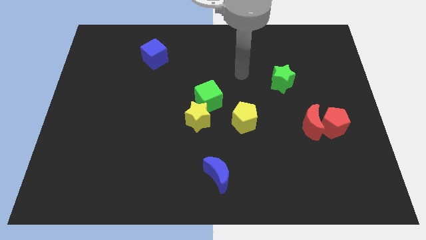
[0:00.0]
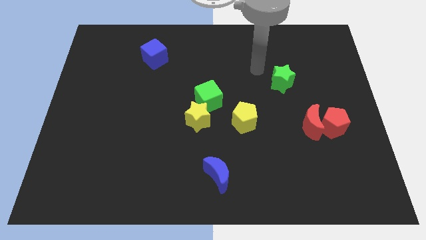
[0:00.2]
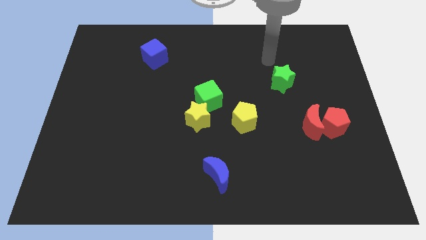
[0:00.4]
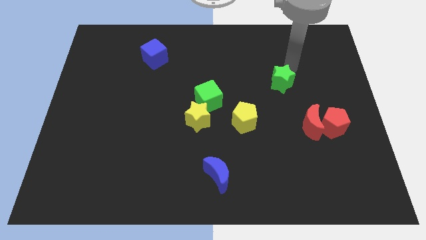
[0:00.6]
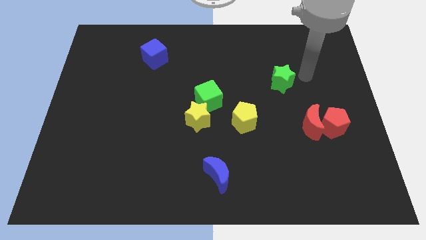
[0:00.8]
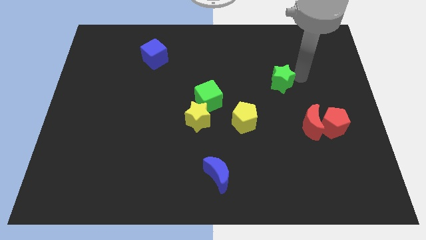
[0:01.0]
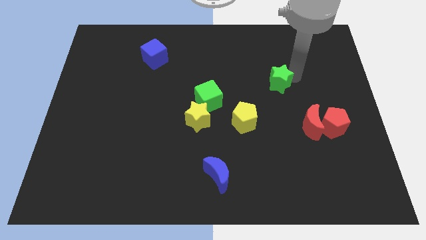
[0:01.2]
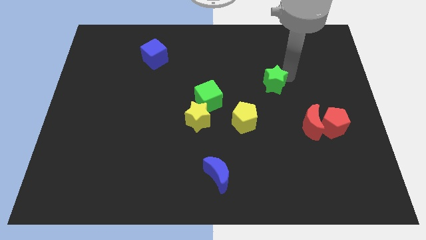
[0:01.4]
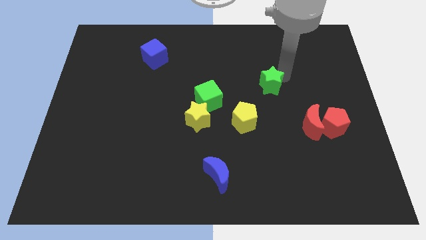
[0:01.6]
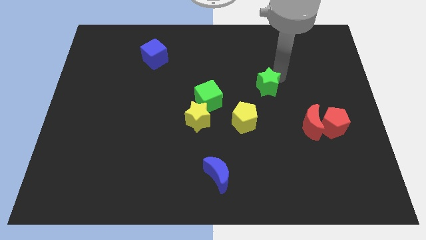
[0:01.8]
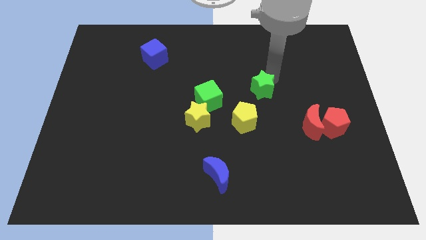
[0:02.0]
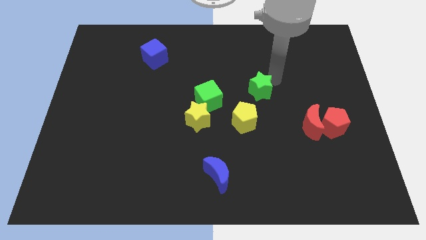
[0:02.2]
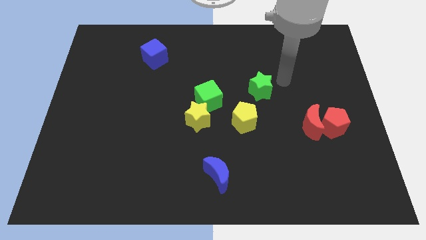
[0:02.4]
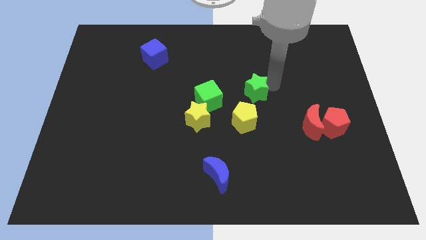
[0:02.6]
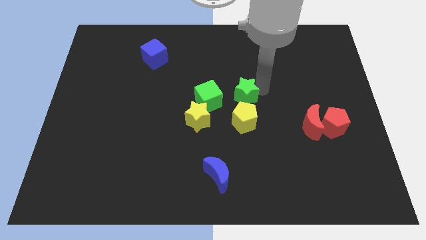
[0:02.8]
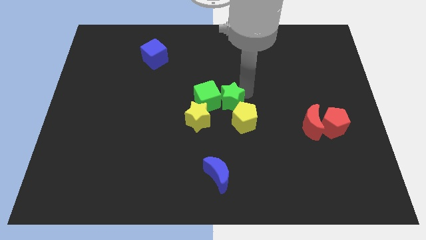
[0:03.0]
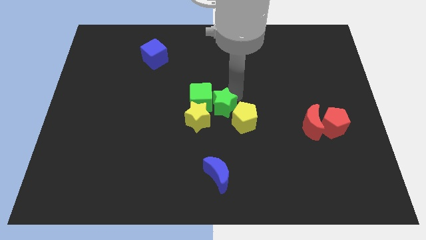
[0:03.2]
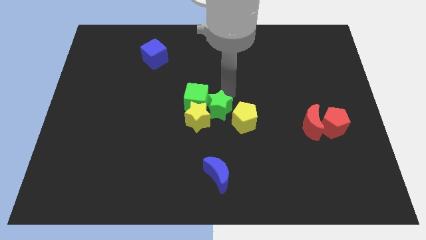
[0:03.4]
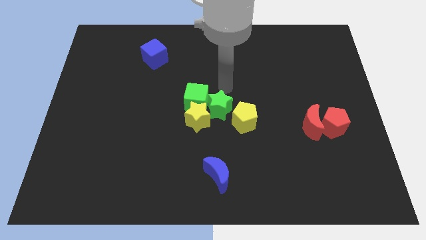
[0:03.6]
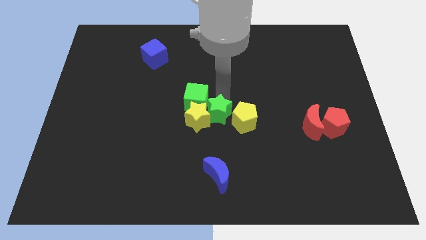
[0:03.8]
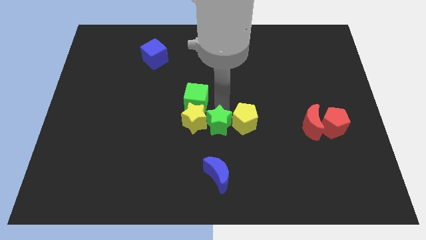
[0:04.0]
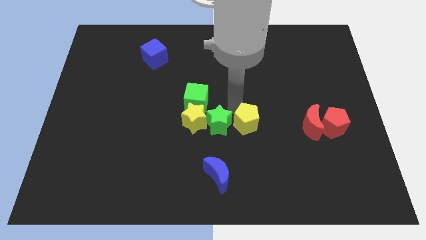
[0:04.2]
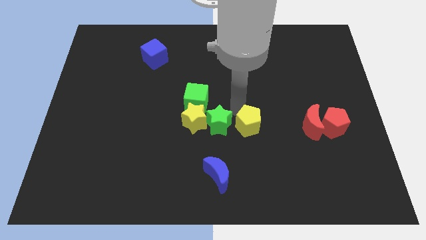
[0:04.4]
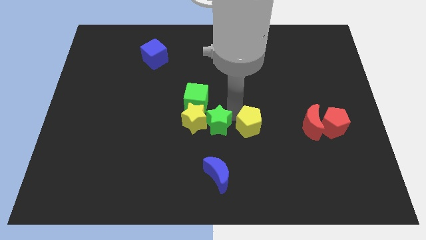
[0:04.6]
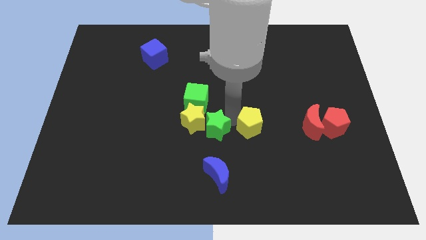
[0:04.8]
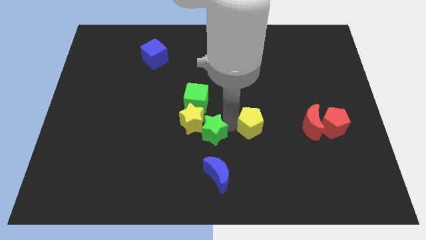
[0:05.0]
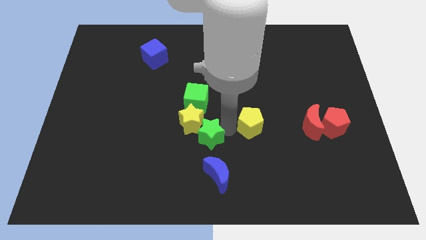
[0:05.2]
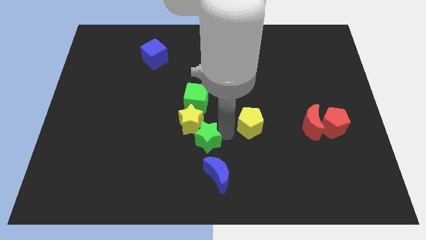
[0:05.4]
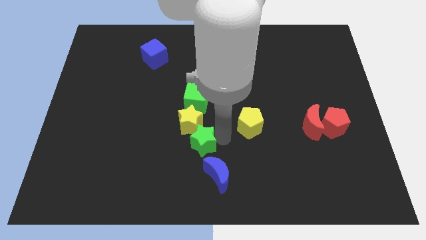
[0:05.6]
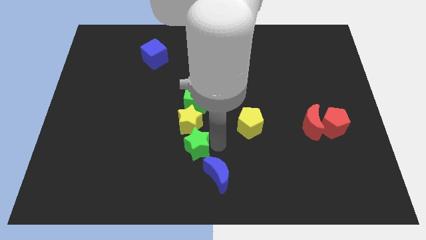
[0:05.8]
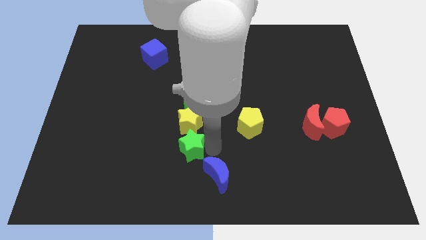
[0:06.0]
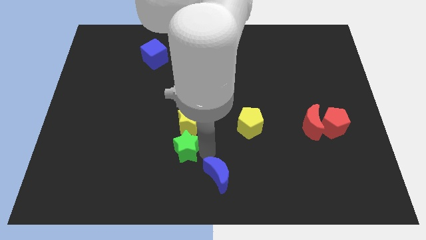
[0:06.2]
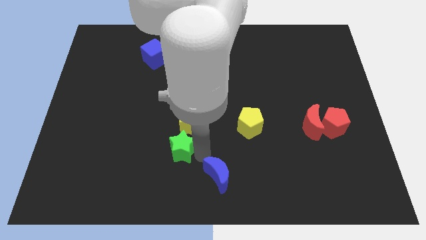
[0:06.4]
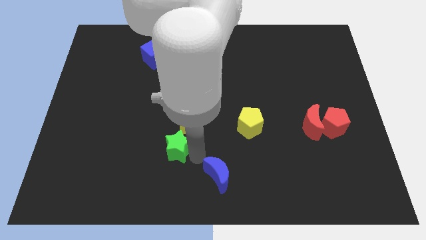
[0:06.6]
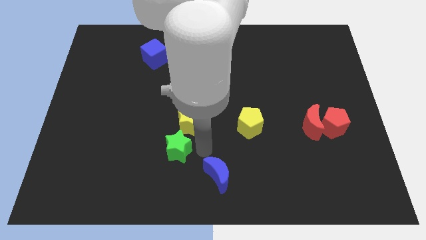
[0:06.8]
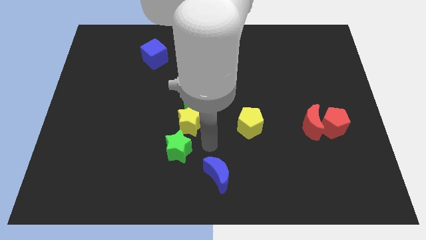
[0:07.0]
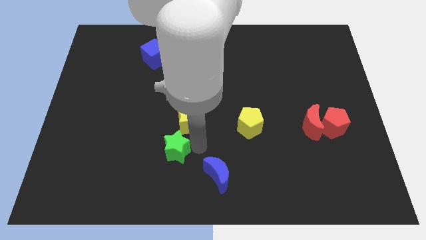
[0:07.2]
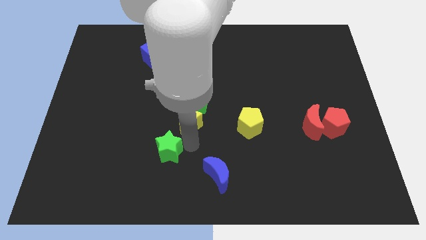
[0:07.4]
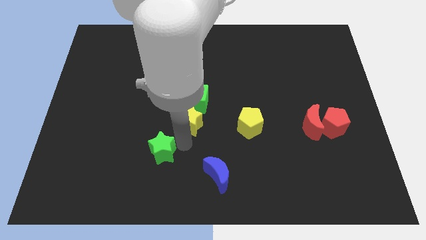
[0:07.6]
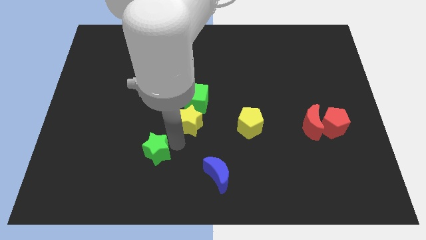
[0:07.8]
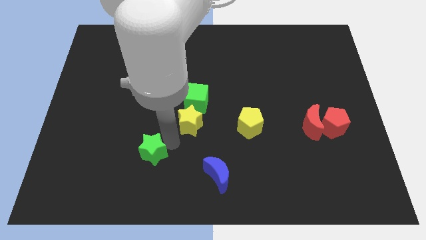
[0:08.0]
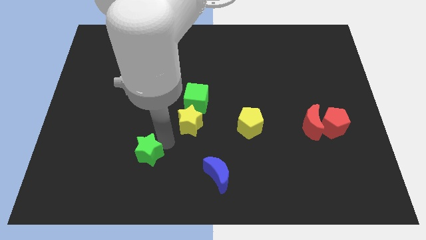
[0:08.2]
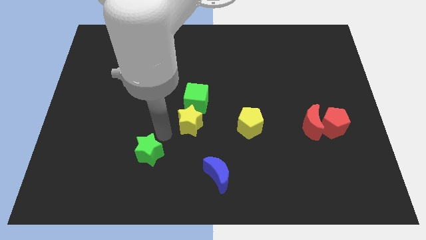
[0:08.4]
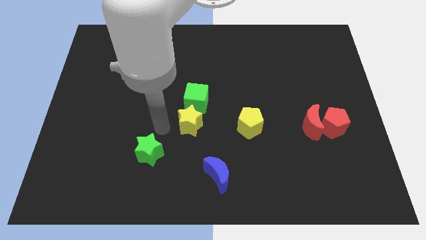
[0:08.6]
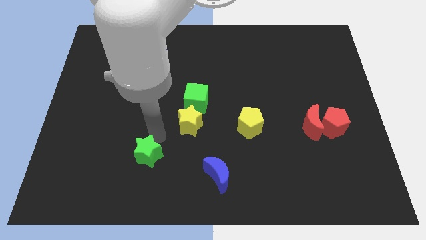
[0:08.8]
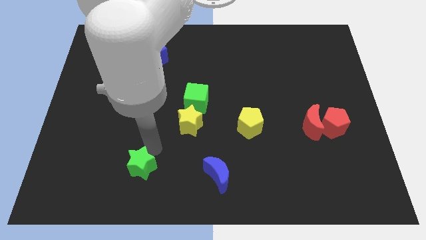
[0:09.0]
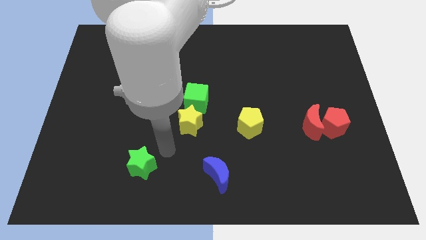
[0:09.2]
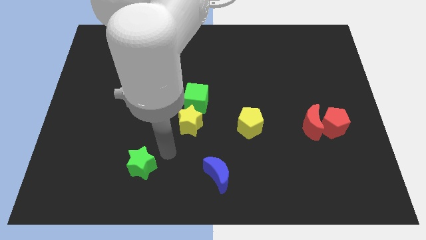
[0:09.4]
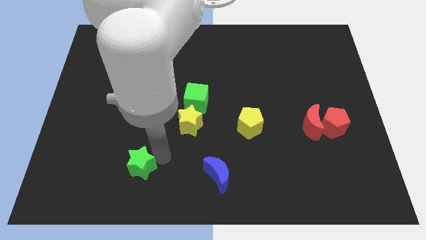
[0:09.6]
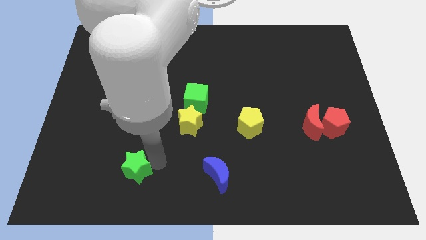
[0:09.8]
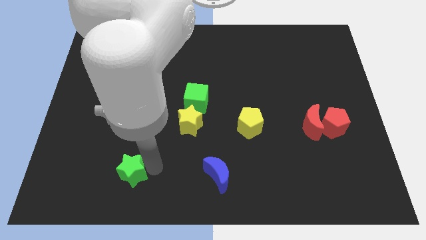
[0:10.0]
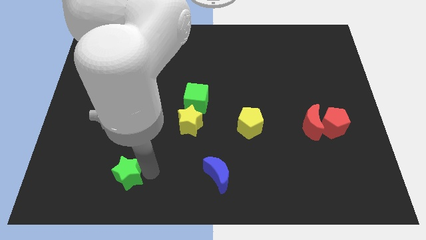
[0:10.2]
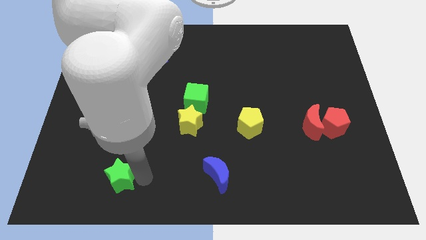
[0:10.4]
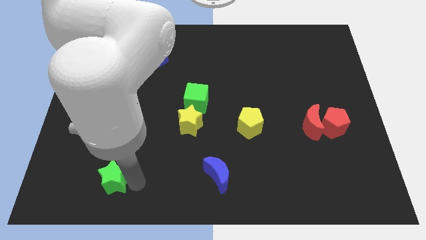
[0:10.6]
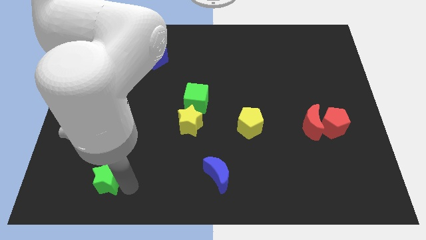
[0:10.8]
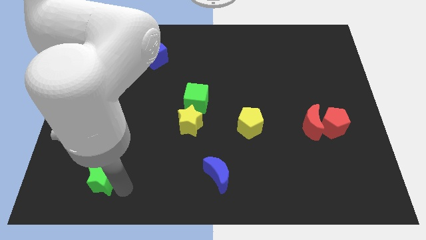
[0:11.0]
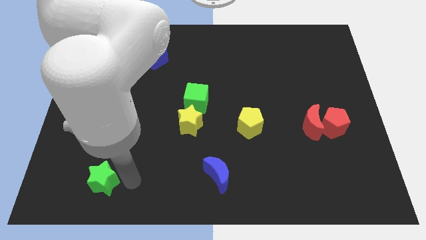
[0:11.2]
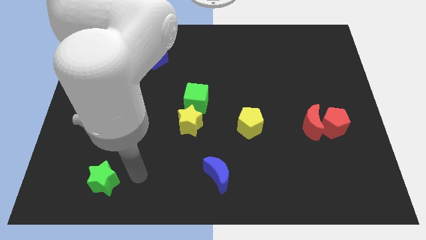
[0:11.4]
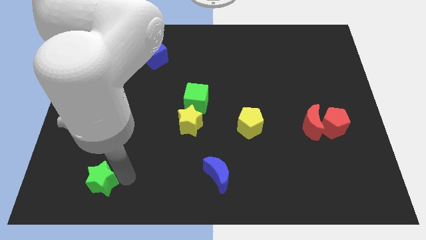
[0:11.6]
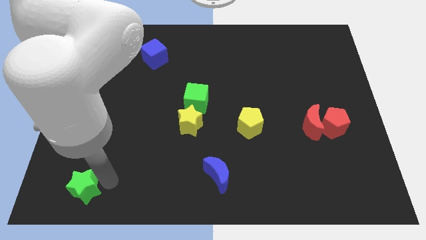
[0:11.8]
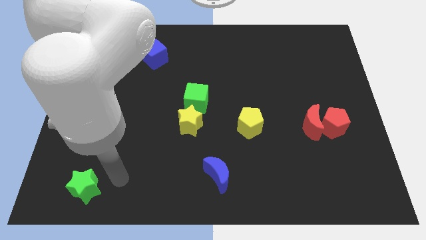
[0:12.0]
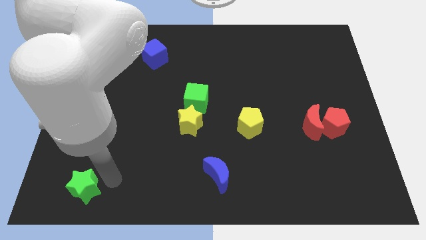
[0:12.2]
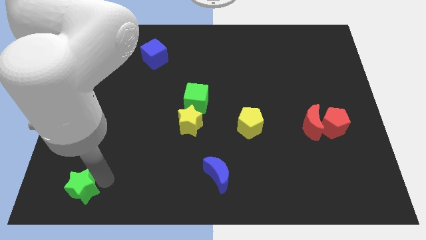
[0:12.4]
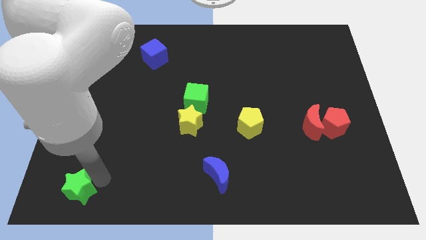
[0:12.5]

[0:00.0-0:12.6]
move the green star to the bottom left

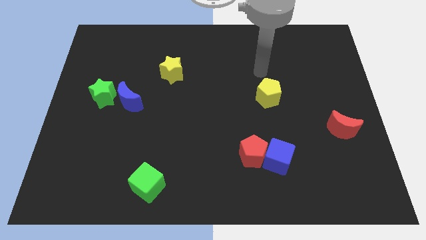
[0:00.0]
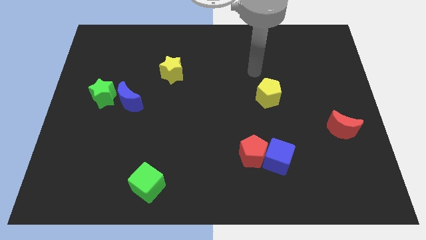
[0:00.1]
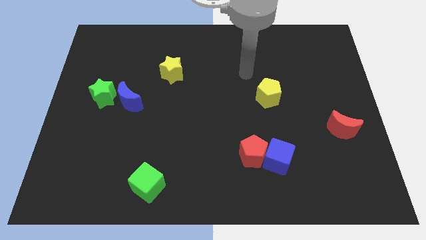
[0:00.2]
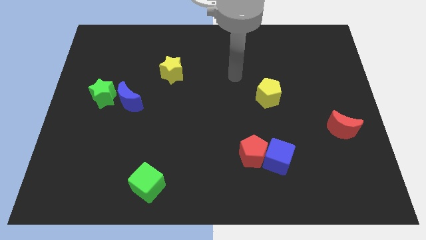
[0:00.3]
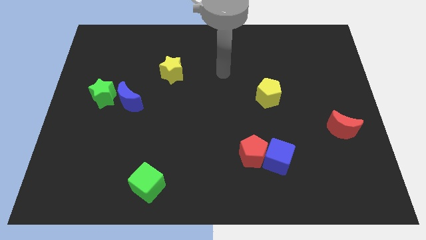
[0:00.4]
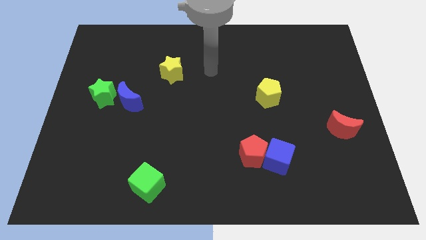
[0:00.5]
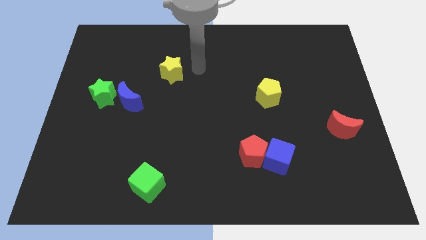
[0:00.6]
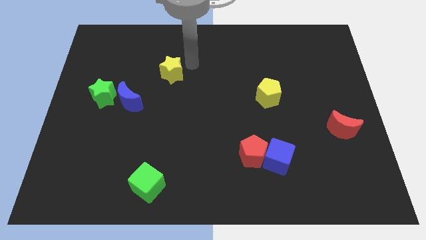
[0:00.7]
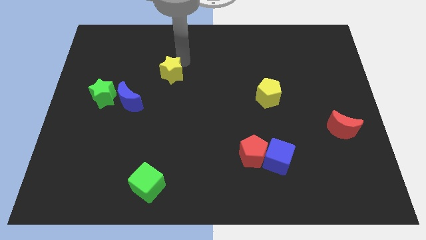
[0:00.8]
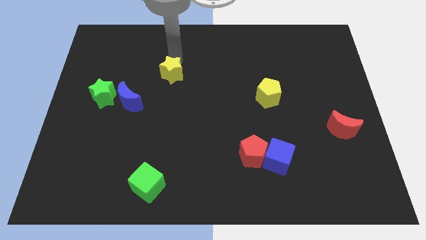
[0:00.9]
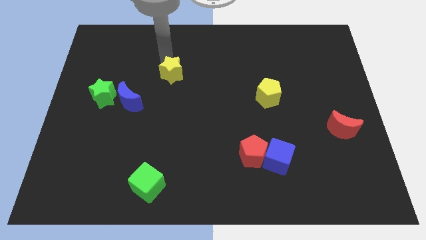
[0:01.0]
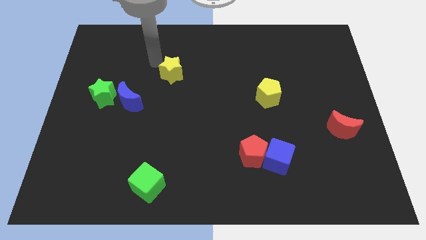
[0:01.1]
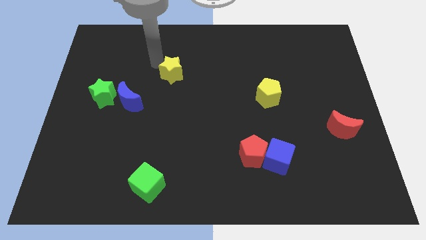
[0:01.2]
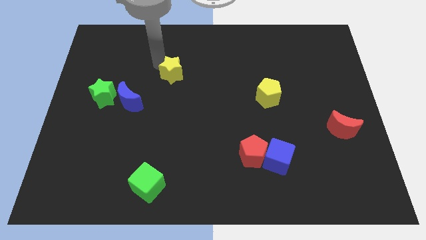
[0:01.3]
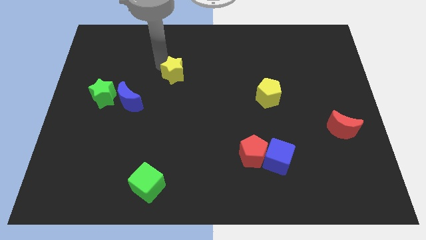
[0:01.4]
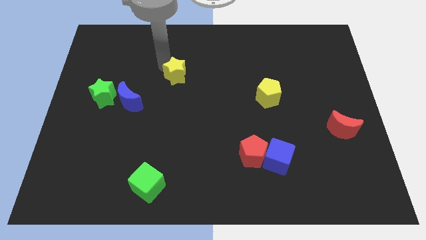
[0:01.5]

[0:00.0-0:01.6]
push the yellow star to the middle of the board

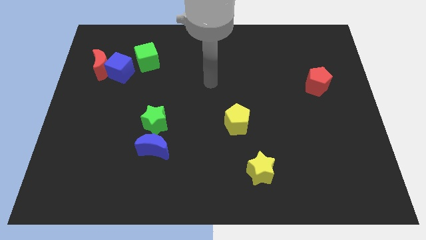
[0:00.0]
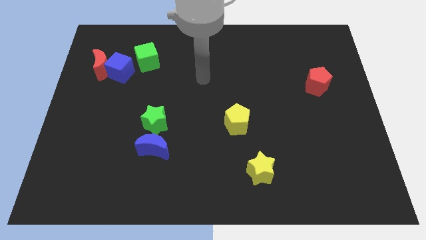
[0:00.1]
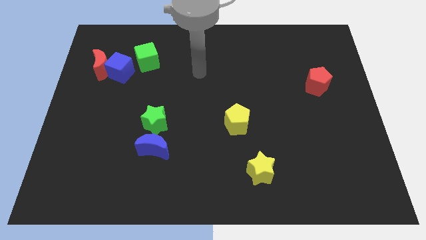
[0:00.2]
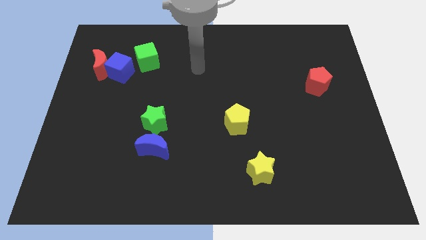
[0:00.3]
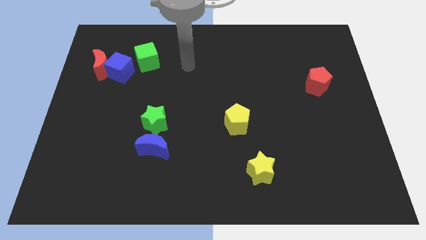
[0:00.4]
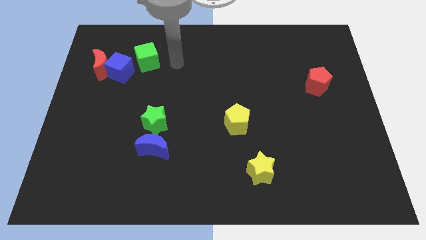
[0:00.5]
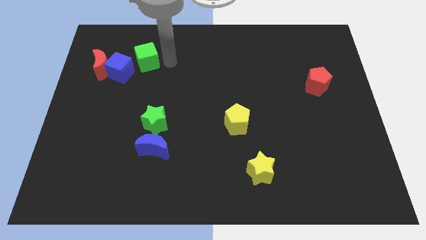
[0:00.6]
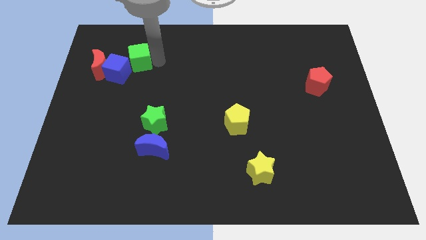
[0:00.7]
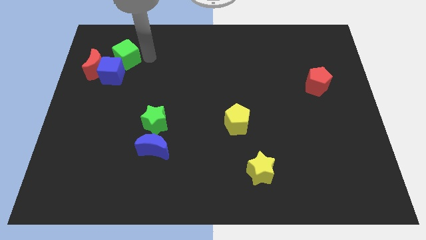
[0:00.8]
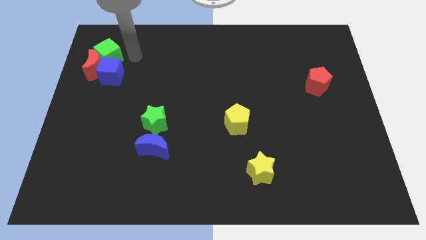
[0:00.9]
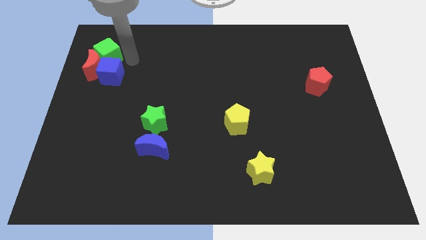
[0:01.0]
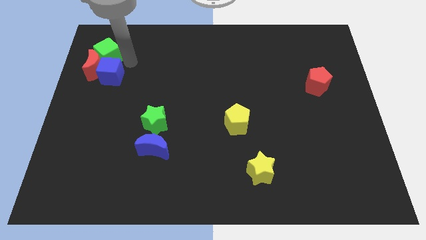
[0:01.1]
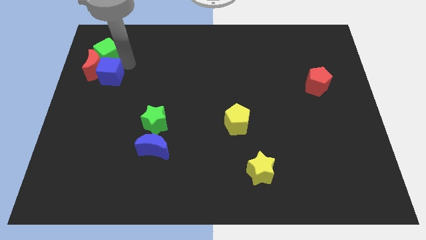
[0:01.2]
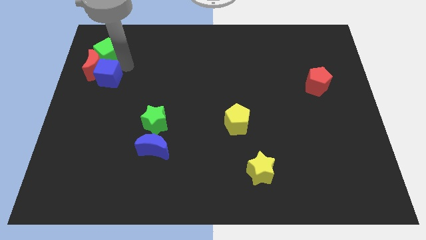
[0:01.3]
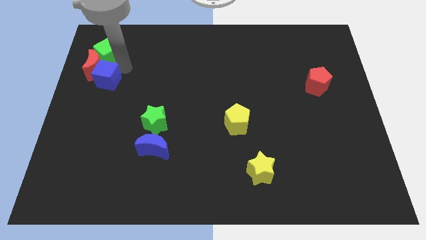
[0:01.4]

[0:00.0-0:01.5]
put the blue cube to the left side of the board
